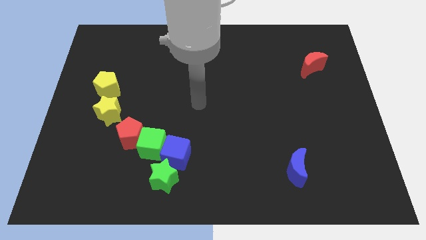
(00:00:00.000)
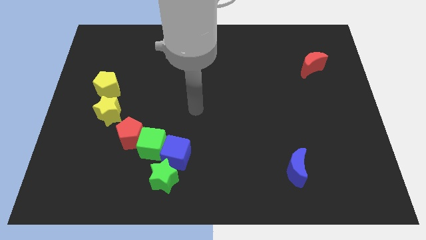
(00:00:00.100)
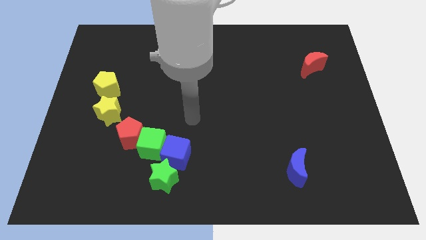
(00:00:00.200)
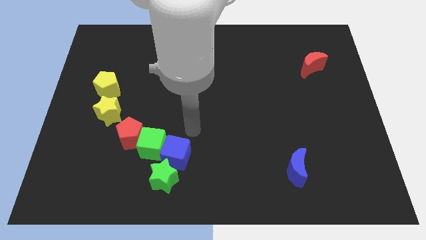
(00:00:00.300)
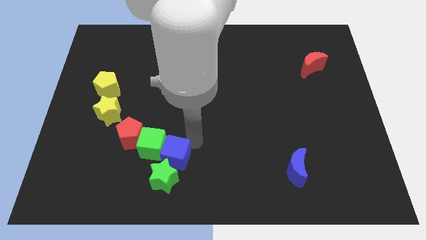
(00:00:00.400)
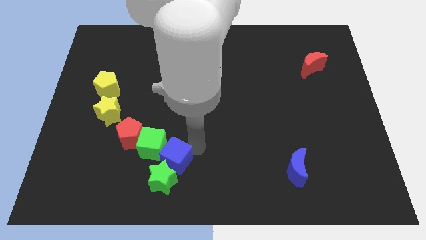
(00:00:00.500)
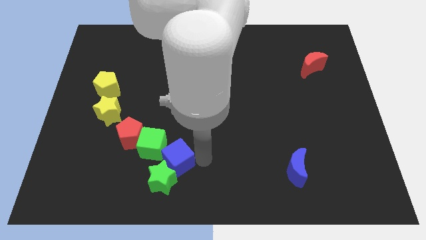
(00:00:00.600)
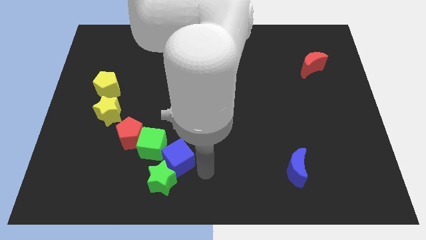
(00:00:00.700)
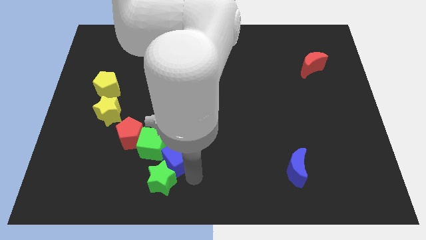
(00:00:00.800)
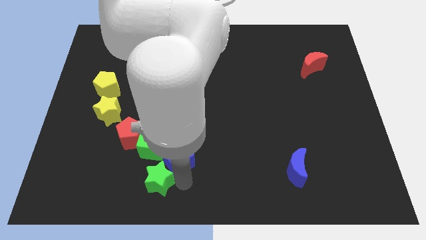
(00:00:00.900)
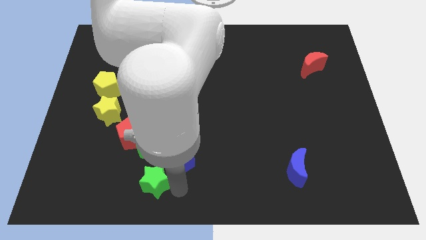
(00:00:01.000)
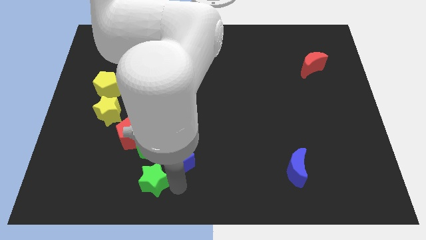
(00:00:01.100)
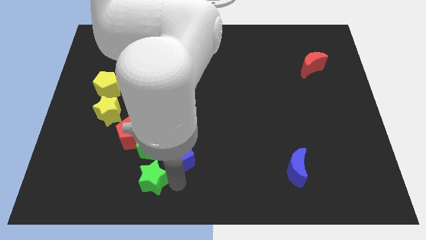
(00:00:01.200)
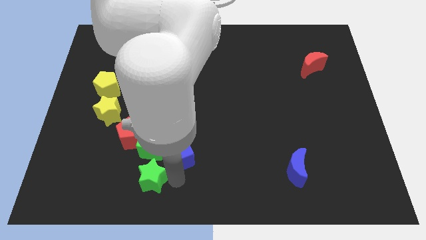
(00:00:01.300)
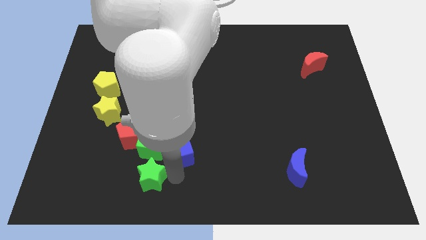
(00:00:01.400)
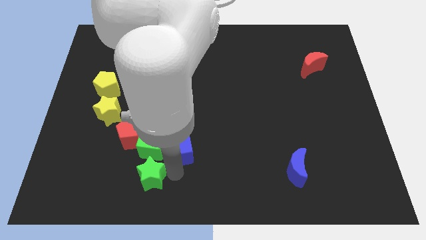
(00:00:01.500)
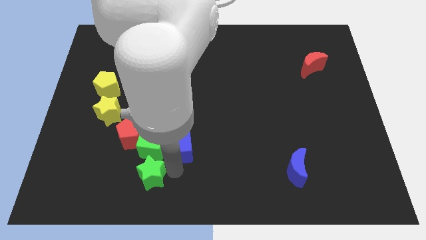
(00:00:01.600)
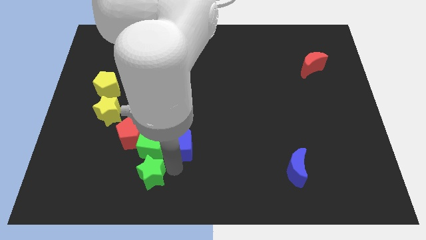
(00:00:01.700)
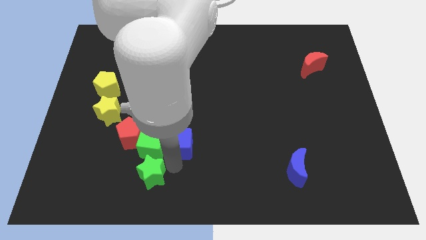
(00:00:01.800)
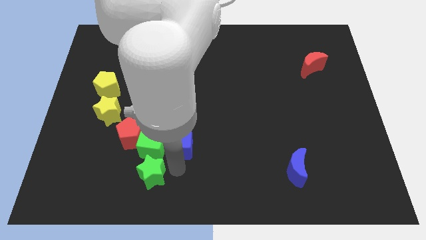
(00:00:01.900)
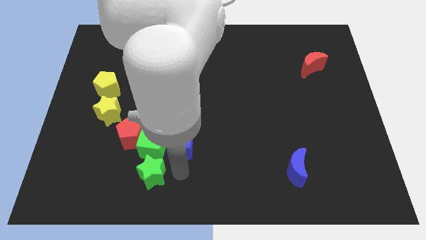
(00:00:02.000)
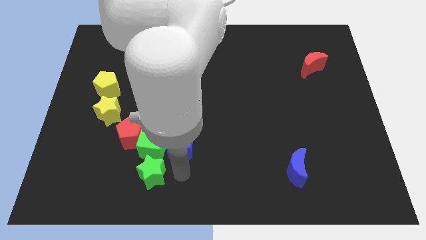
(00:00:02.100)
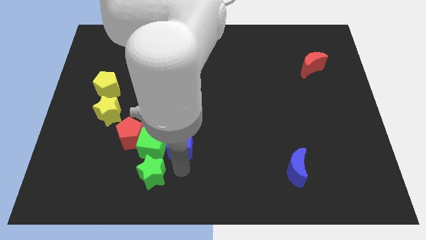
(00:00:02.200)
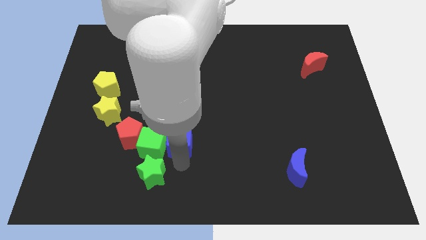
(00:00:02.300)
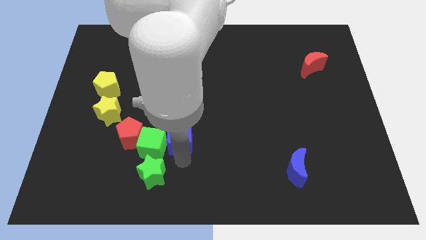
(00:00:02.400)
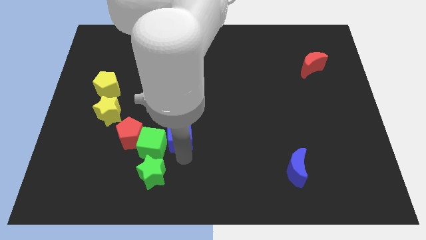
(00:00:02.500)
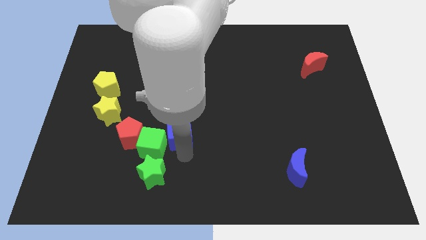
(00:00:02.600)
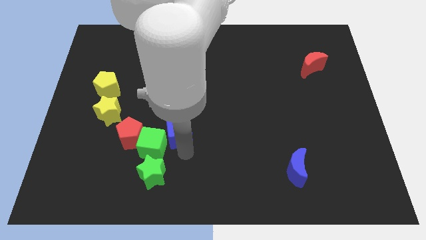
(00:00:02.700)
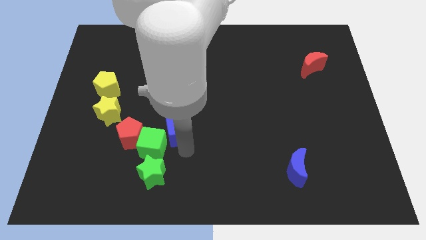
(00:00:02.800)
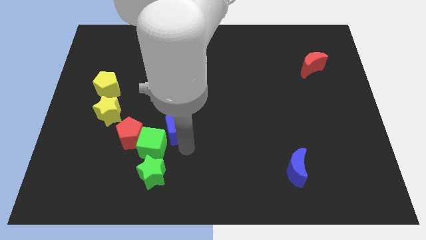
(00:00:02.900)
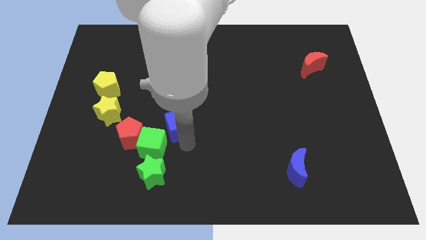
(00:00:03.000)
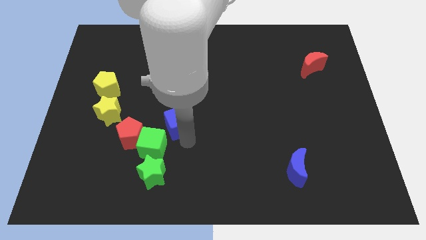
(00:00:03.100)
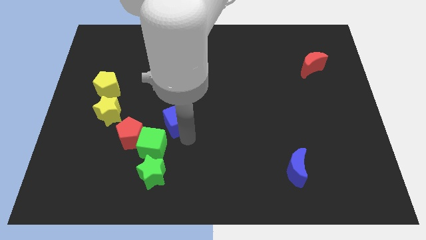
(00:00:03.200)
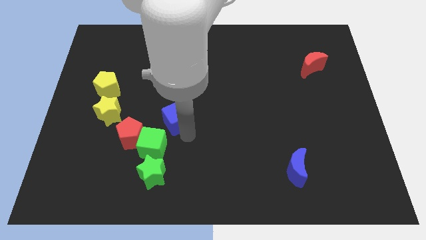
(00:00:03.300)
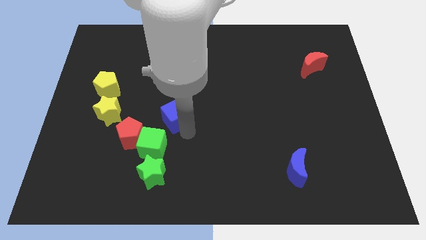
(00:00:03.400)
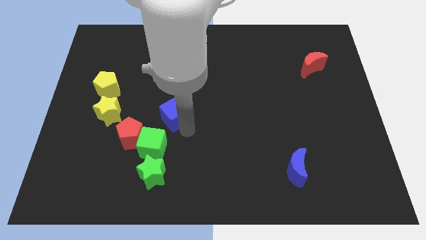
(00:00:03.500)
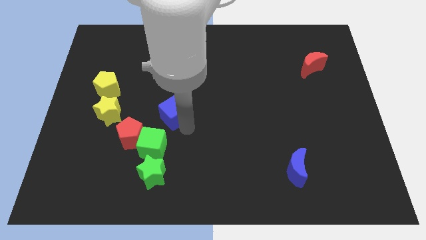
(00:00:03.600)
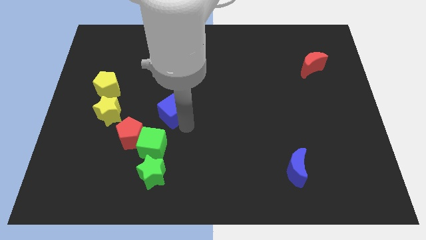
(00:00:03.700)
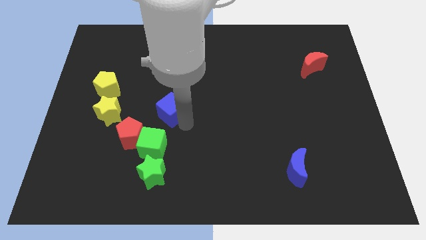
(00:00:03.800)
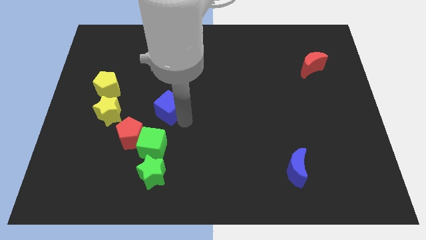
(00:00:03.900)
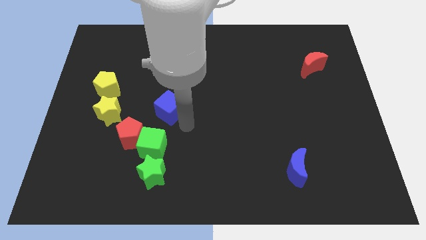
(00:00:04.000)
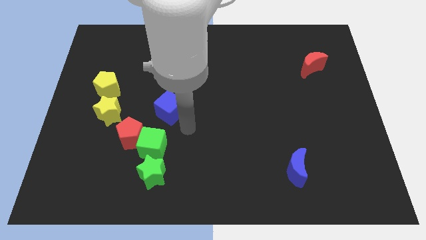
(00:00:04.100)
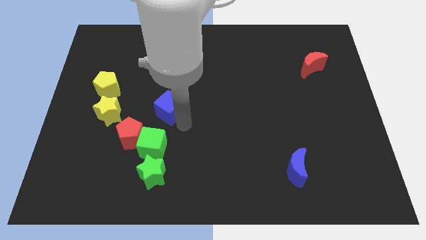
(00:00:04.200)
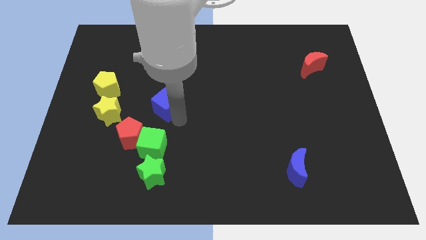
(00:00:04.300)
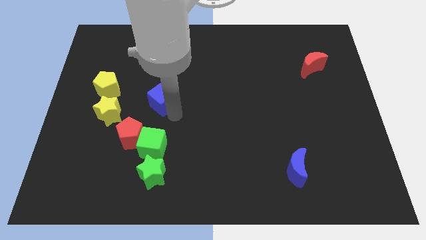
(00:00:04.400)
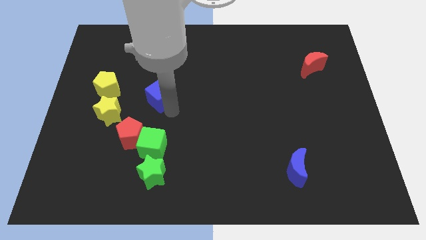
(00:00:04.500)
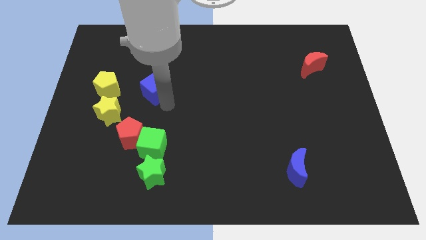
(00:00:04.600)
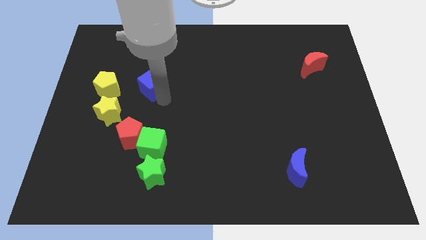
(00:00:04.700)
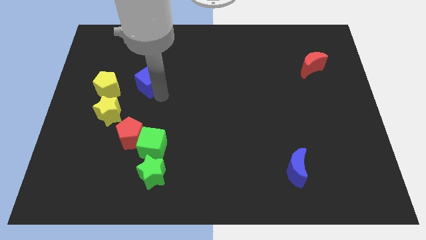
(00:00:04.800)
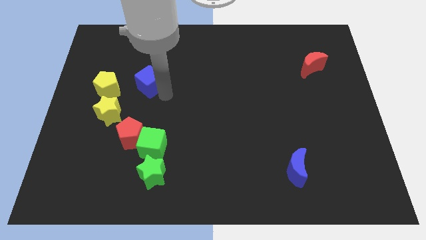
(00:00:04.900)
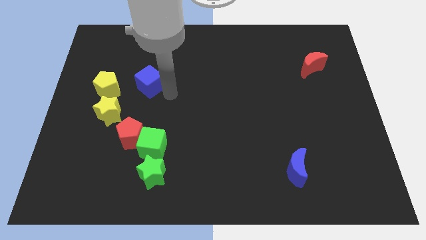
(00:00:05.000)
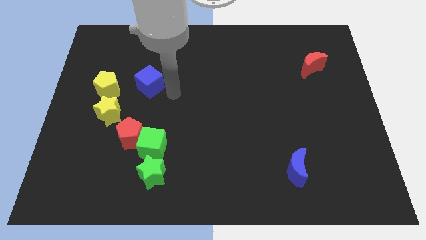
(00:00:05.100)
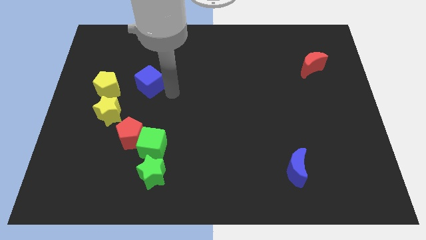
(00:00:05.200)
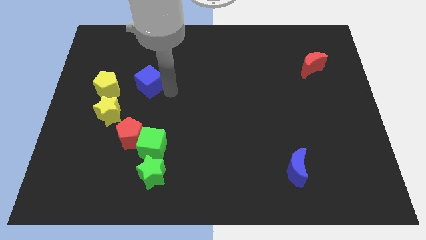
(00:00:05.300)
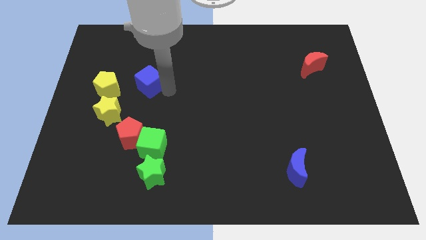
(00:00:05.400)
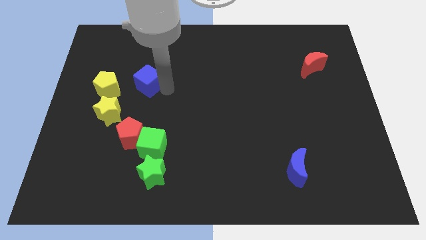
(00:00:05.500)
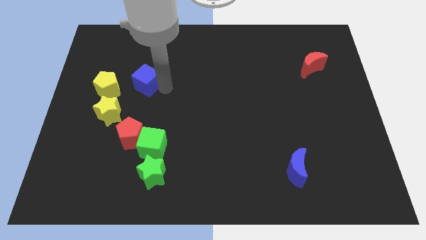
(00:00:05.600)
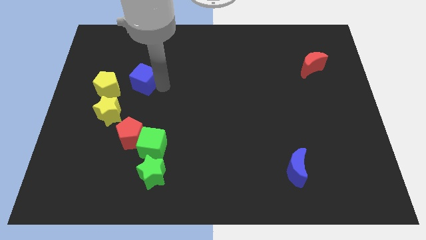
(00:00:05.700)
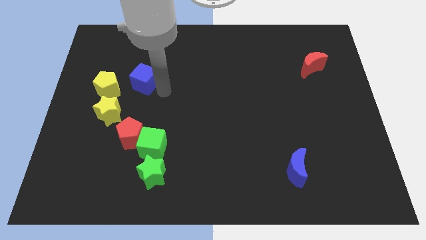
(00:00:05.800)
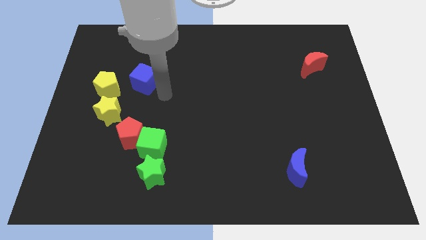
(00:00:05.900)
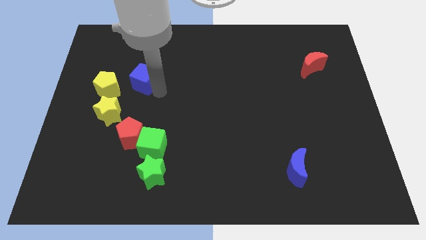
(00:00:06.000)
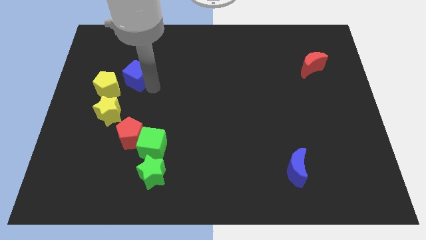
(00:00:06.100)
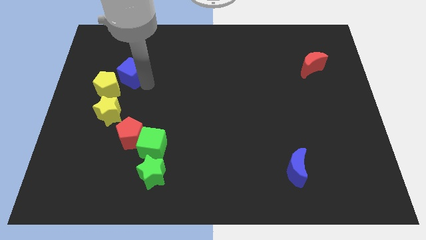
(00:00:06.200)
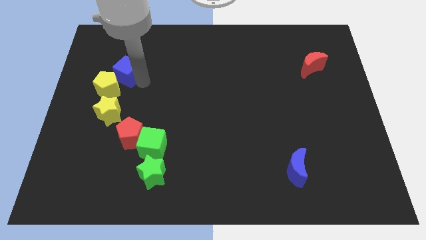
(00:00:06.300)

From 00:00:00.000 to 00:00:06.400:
slide the blue cube above the yellow pentagon

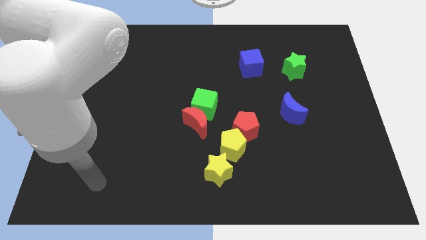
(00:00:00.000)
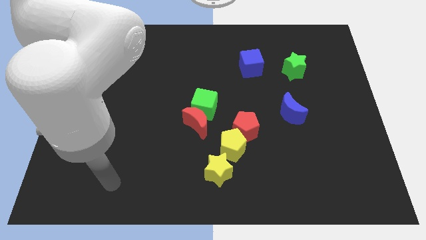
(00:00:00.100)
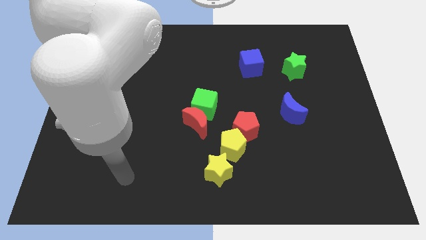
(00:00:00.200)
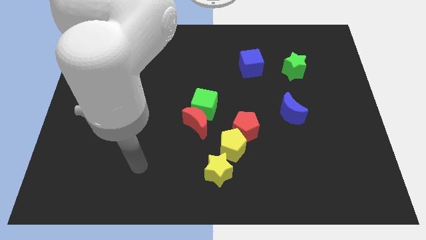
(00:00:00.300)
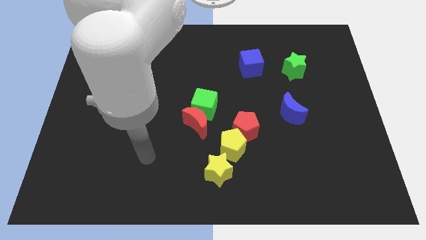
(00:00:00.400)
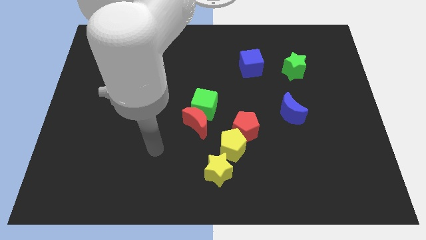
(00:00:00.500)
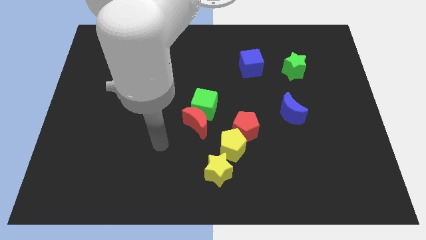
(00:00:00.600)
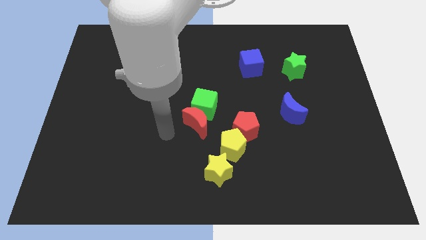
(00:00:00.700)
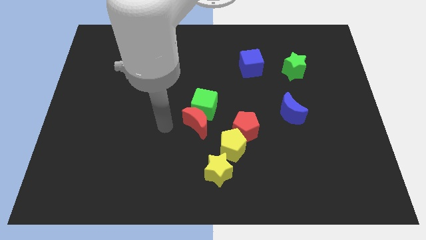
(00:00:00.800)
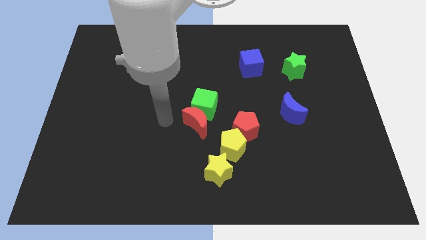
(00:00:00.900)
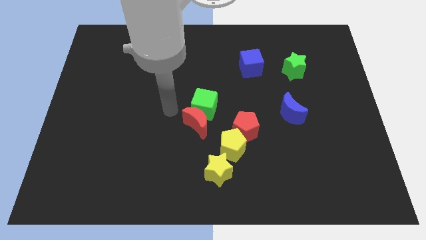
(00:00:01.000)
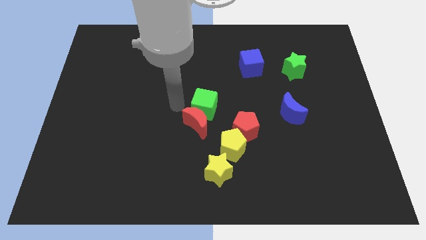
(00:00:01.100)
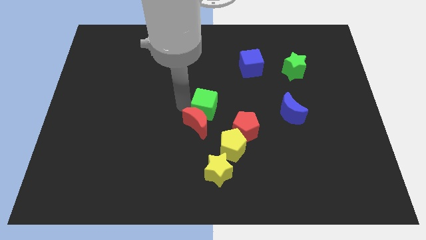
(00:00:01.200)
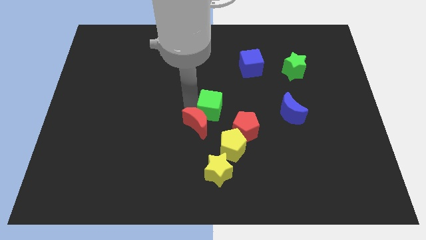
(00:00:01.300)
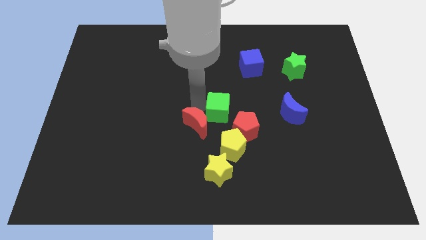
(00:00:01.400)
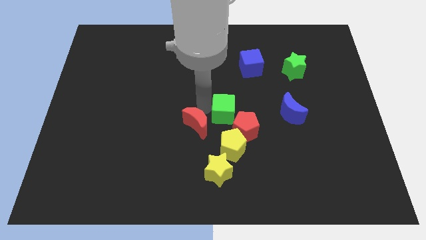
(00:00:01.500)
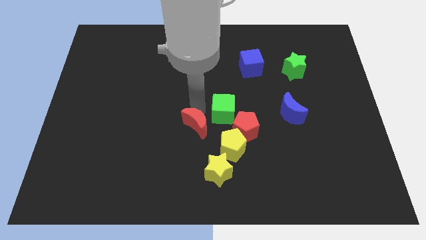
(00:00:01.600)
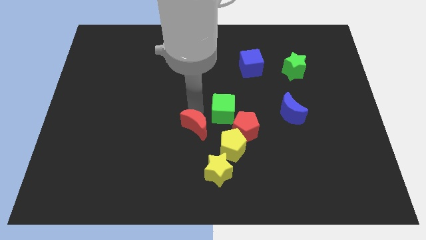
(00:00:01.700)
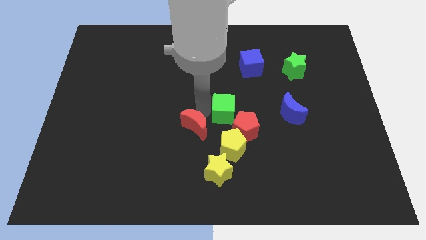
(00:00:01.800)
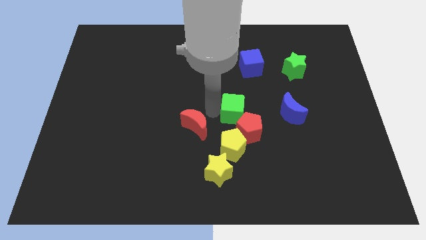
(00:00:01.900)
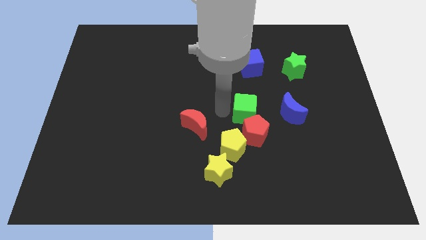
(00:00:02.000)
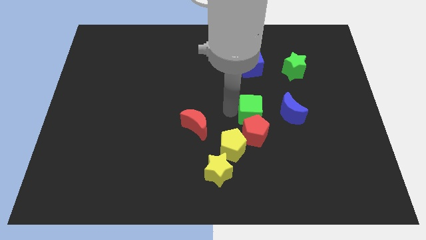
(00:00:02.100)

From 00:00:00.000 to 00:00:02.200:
put the green cube to the top right side of the red pentagon
